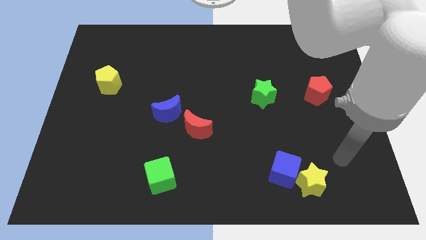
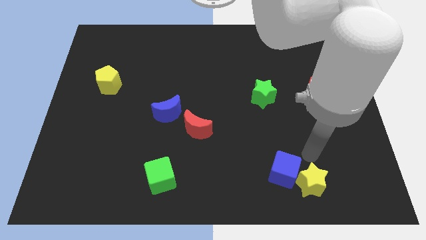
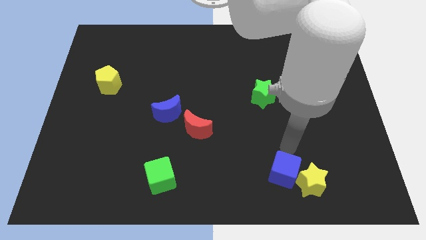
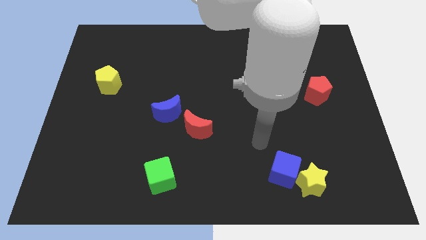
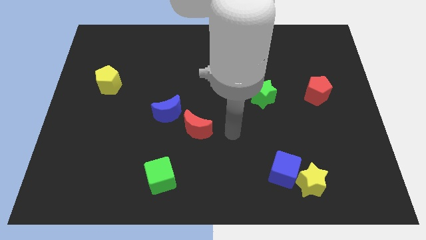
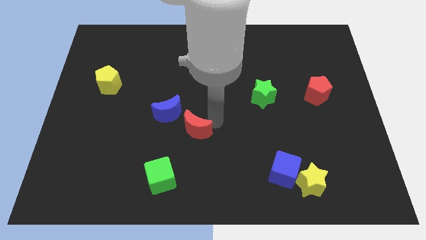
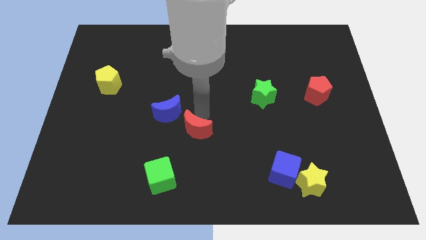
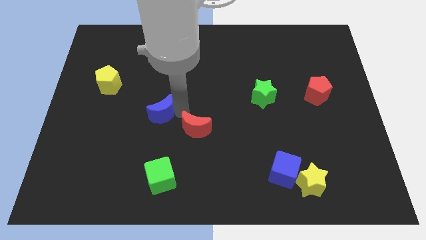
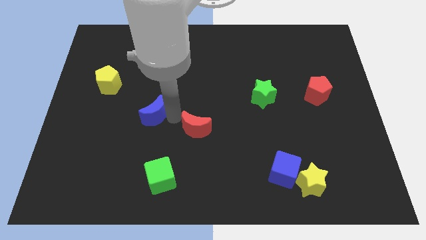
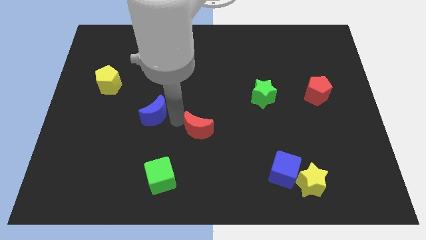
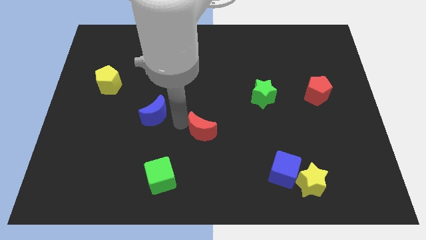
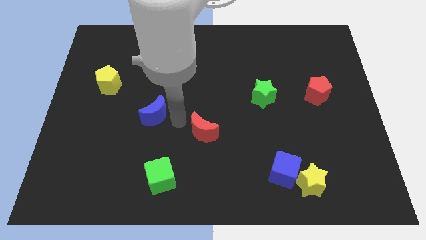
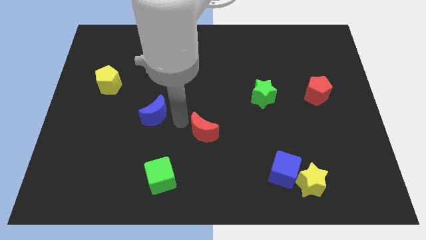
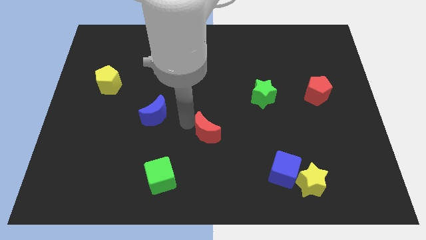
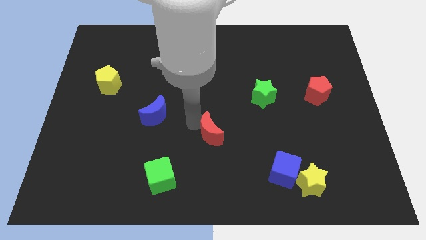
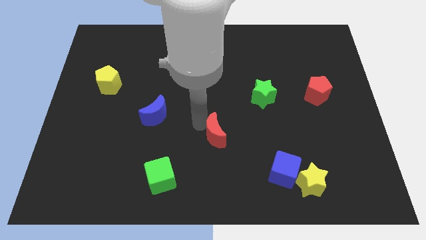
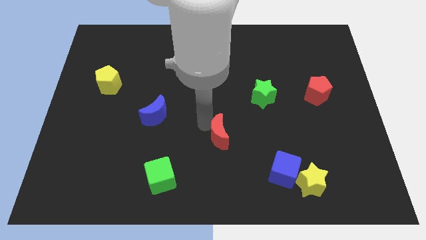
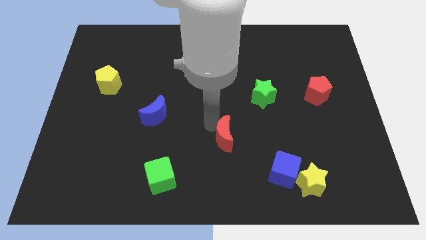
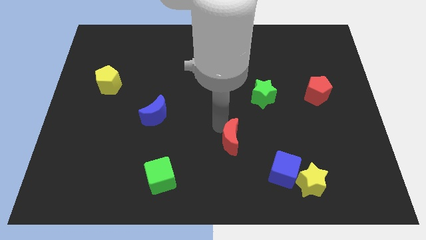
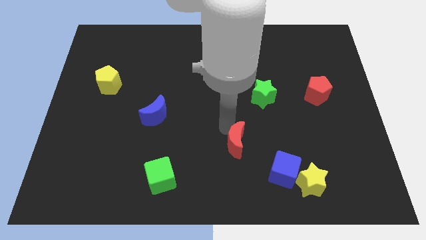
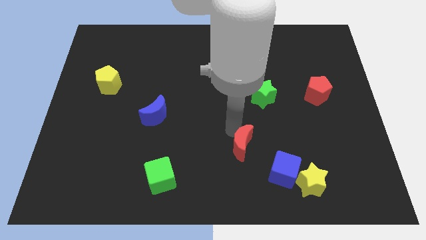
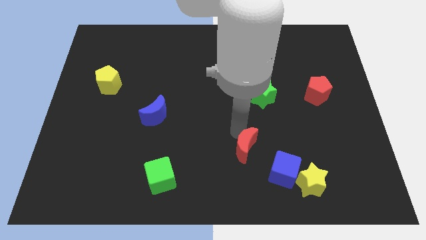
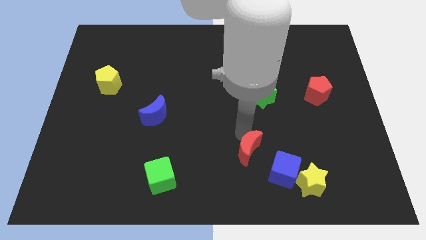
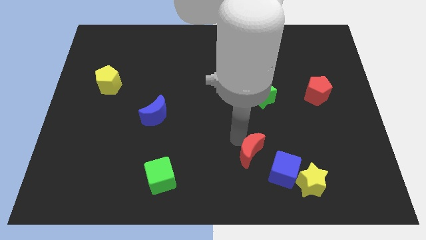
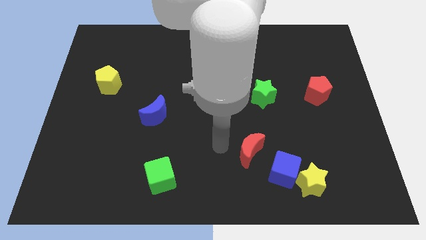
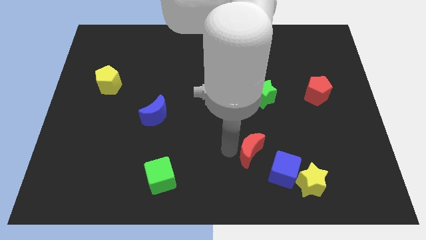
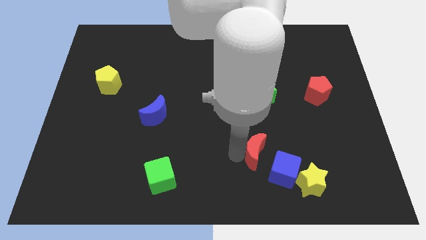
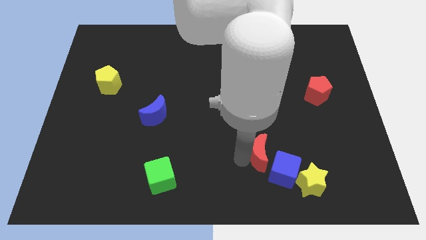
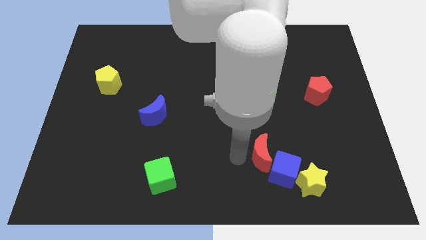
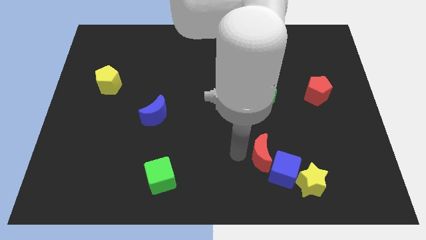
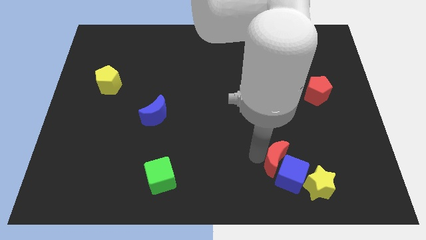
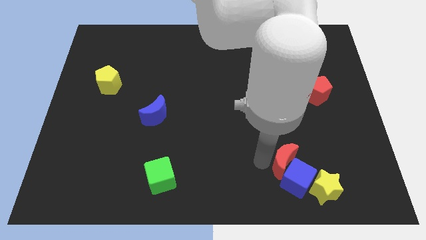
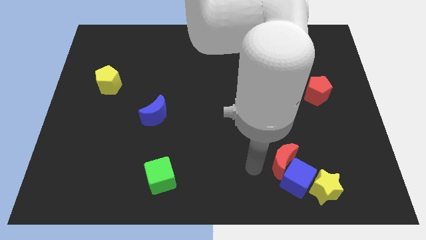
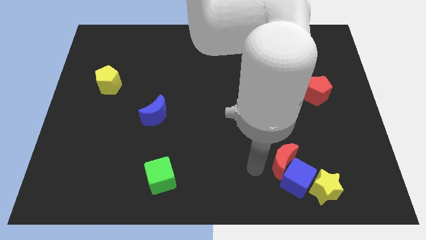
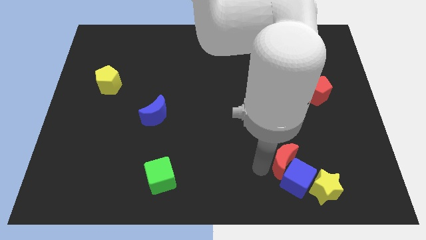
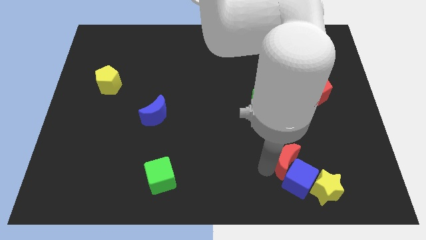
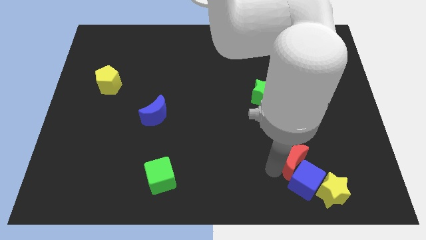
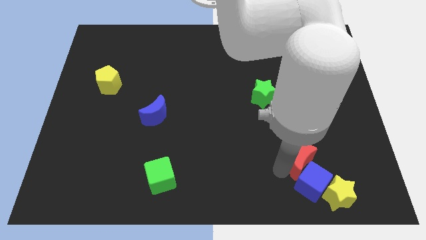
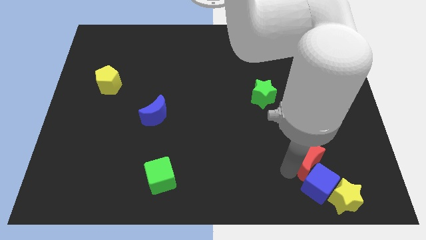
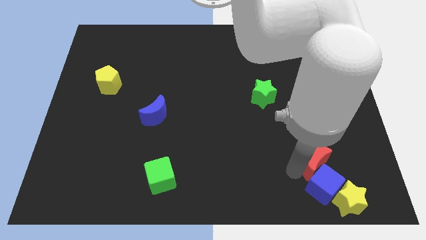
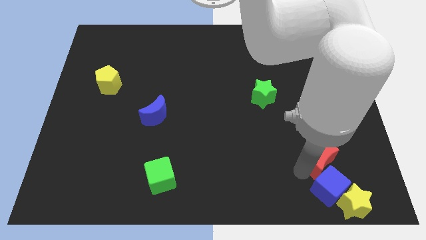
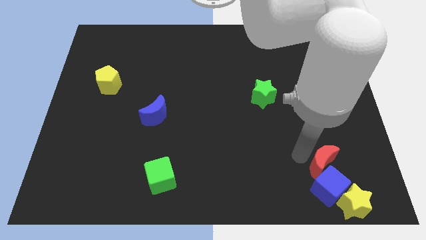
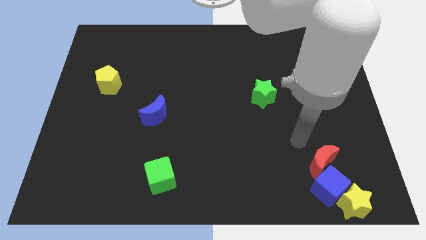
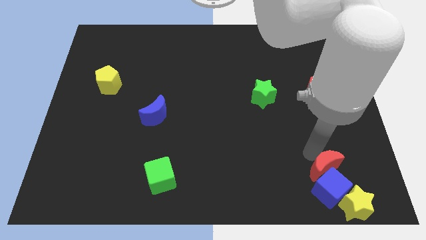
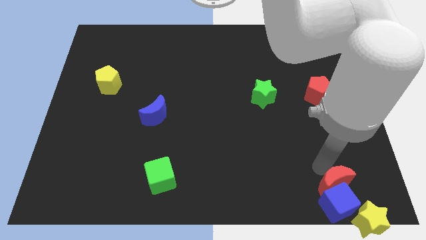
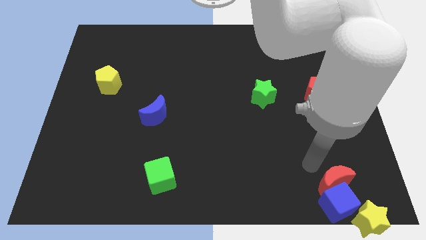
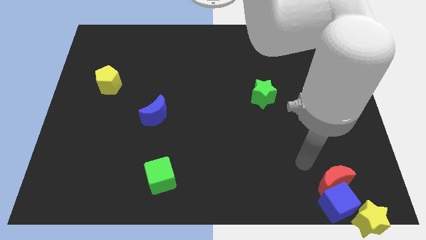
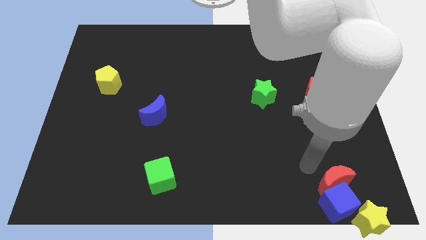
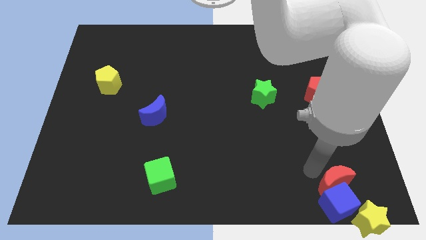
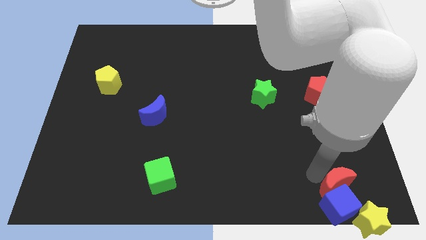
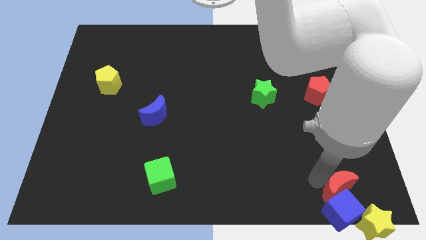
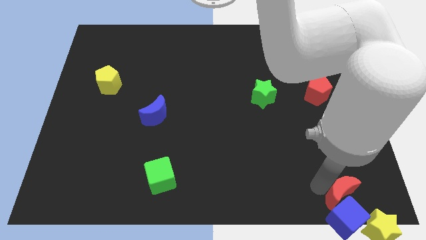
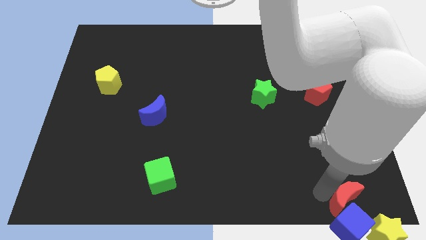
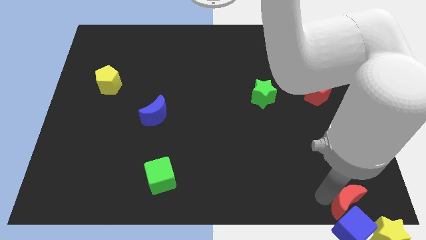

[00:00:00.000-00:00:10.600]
slide the red moon to the lower right corner

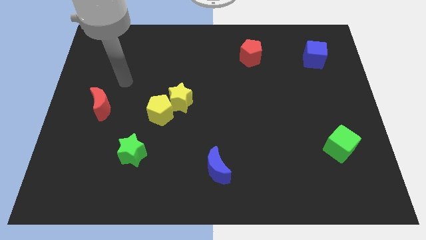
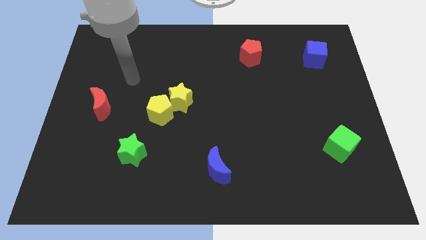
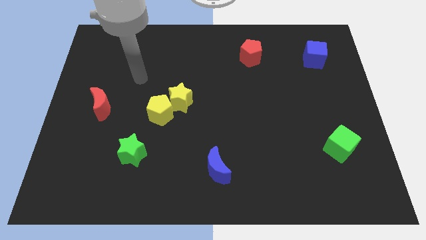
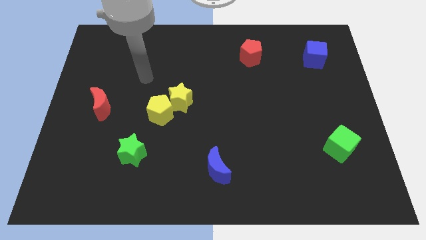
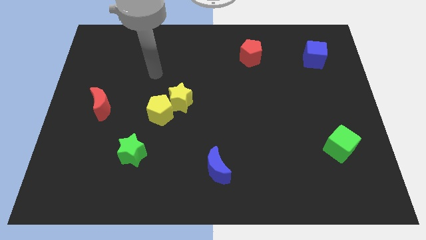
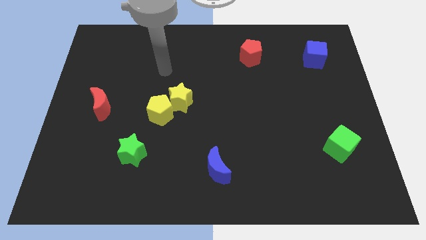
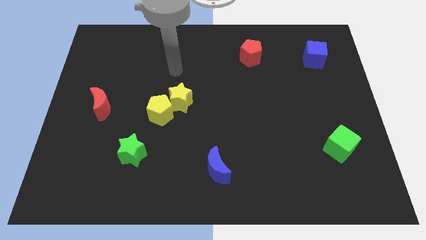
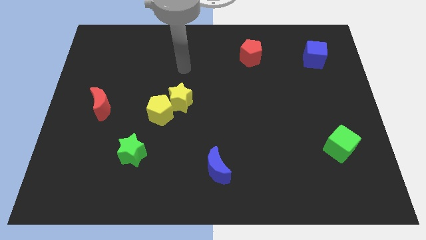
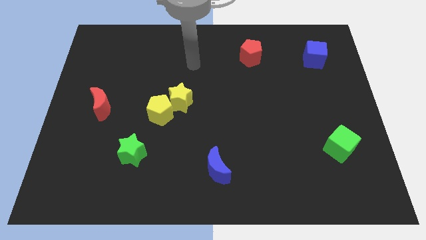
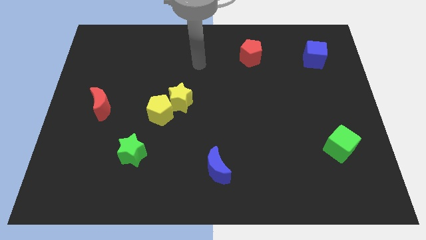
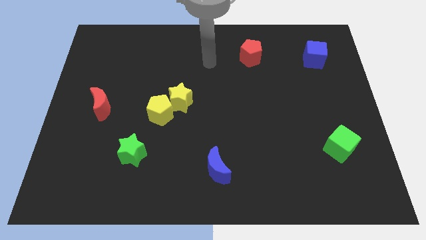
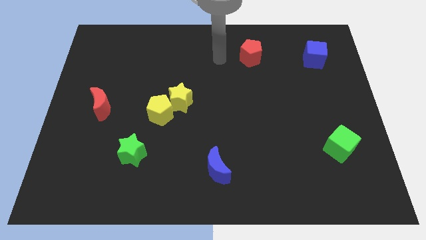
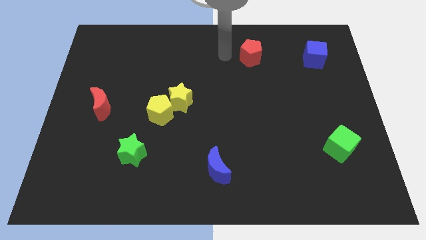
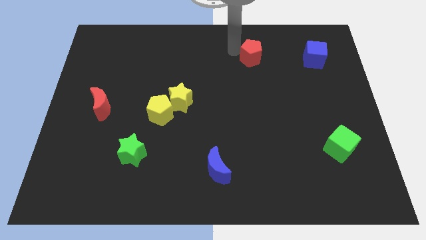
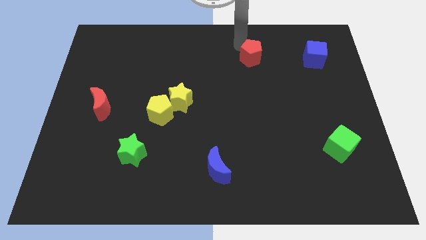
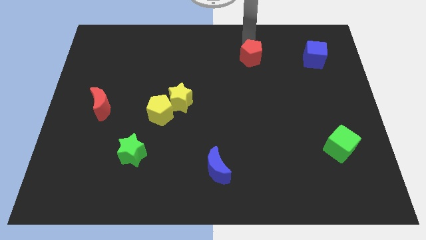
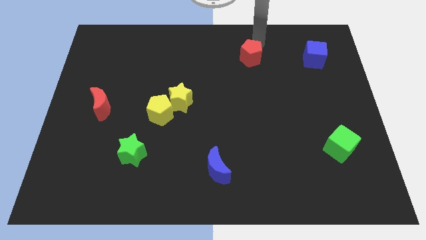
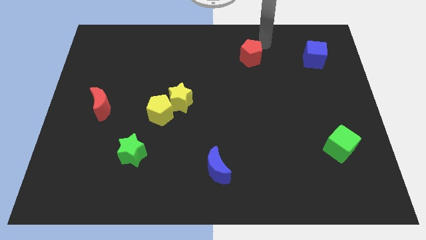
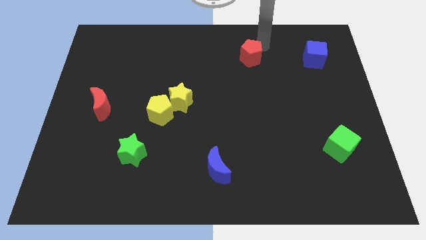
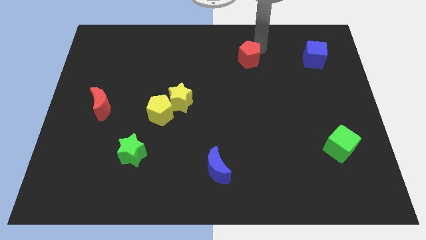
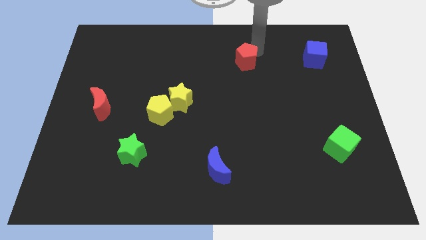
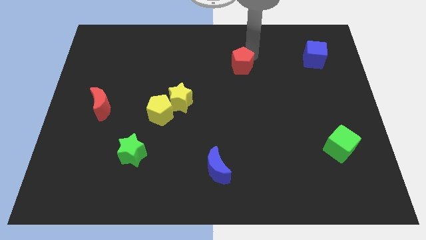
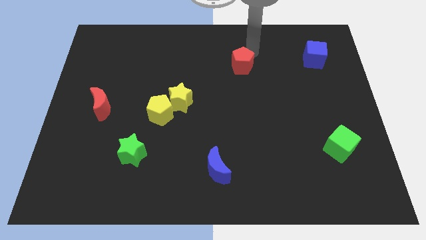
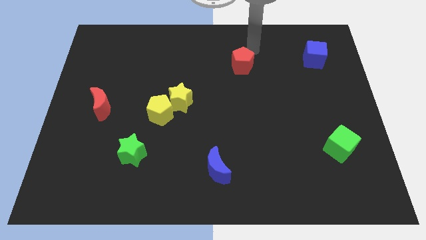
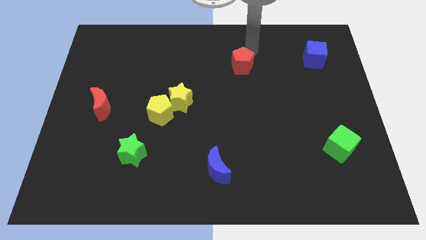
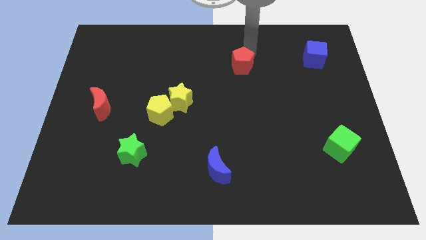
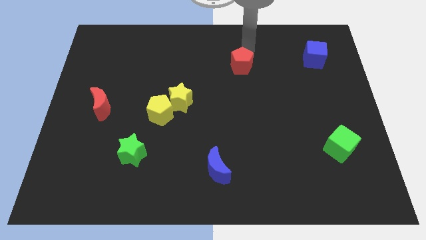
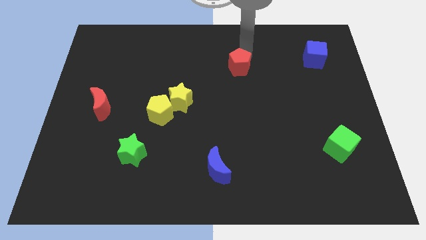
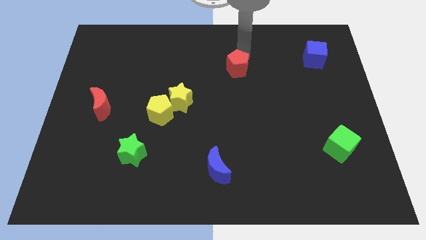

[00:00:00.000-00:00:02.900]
move the red pentagon to the middle of the board
